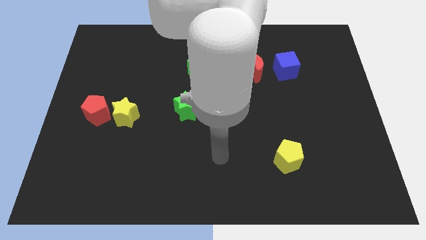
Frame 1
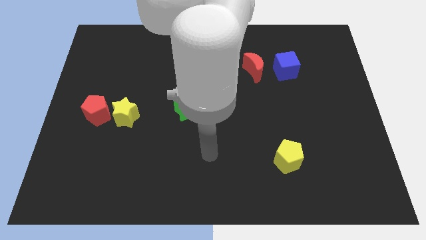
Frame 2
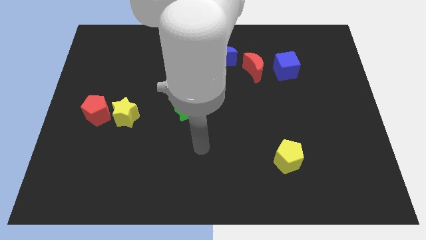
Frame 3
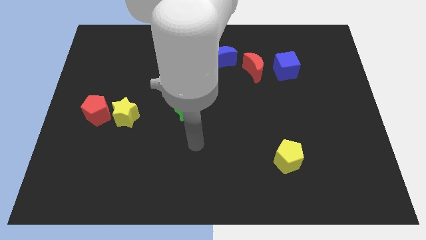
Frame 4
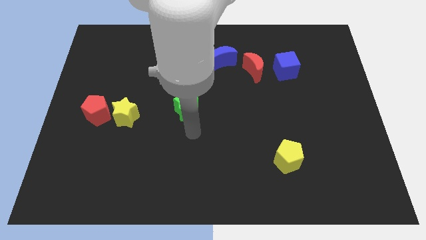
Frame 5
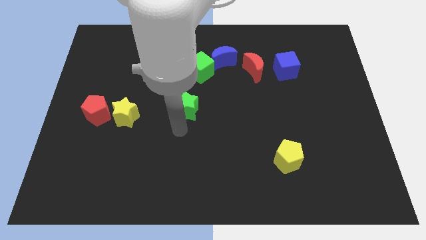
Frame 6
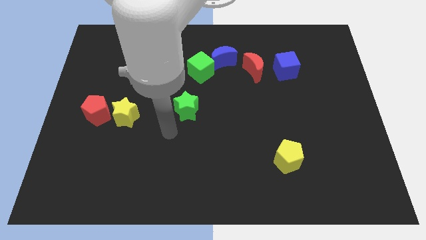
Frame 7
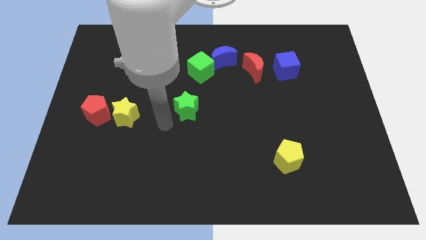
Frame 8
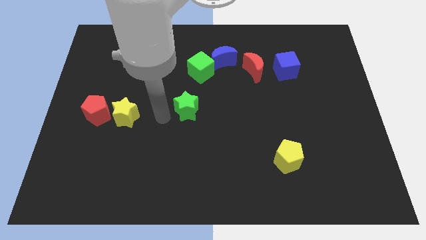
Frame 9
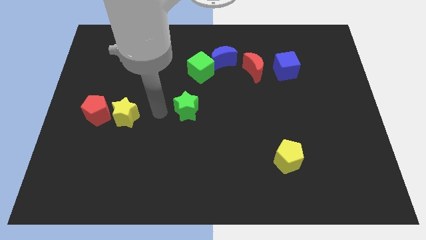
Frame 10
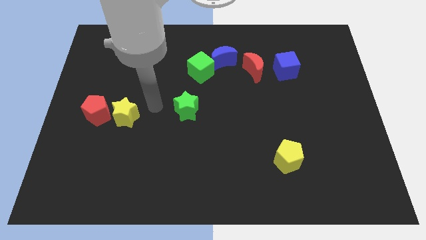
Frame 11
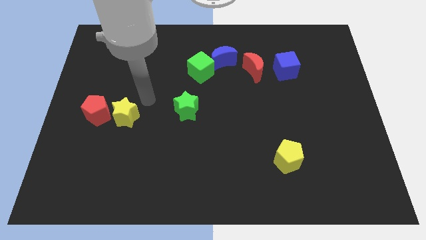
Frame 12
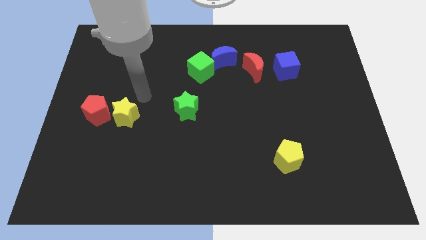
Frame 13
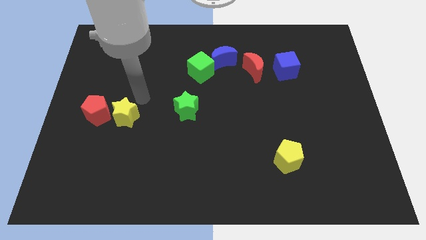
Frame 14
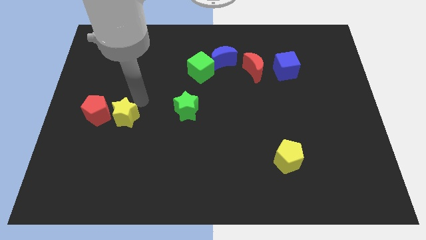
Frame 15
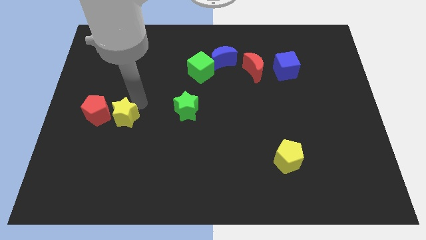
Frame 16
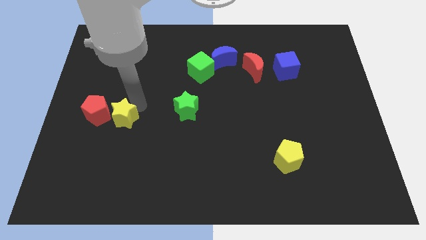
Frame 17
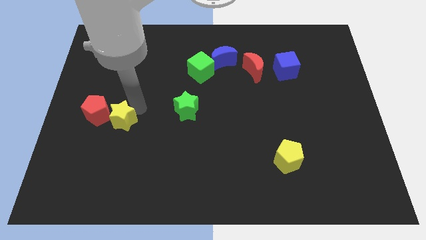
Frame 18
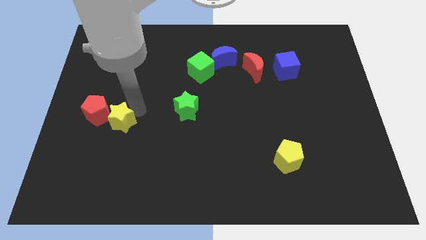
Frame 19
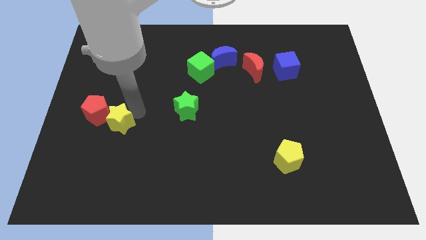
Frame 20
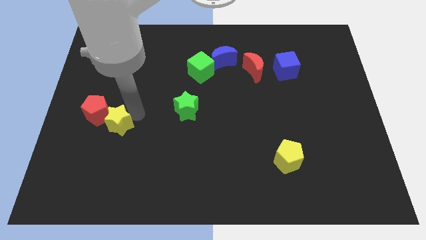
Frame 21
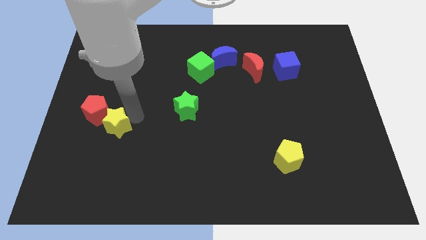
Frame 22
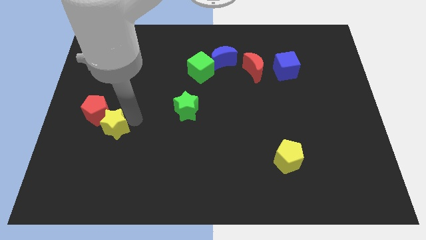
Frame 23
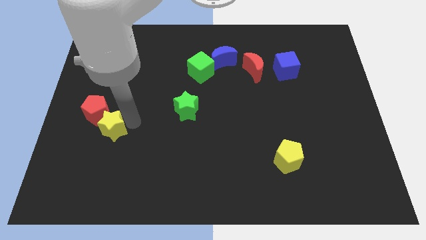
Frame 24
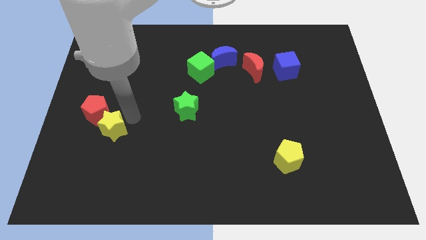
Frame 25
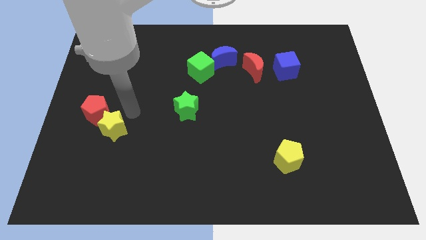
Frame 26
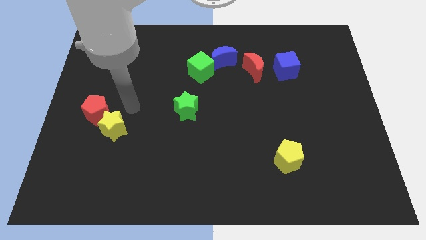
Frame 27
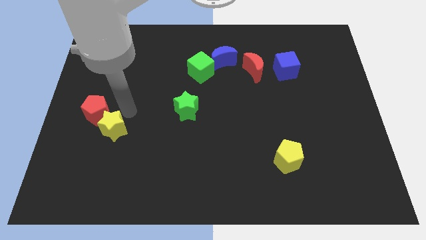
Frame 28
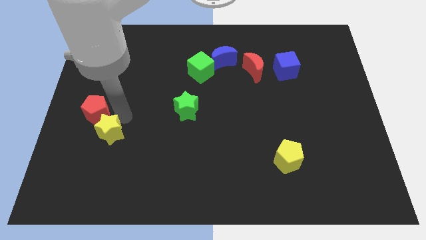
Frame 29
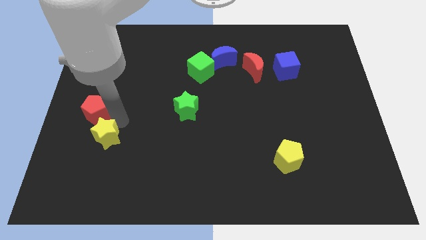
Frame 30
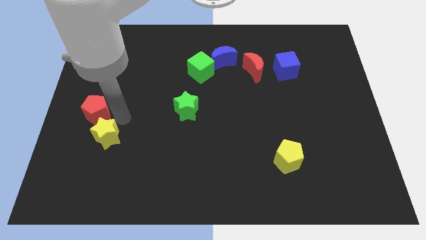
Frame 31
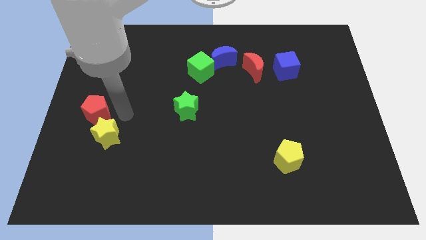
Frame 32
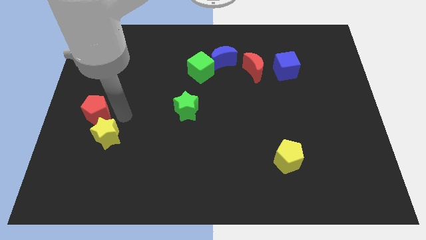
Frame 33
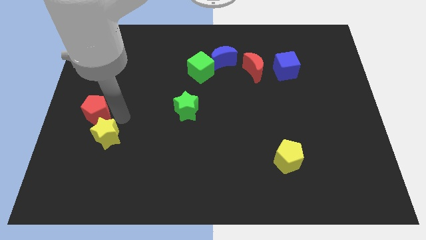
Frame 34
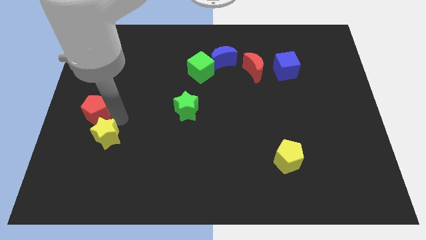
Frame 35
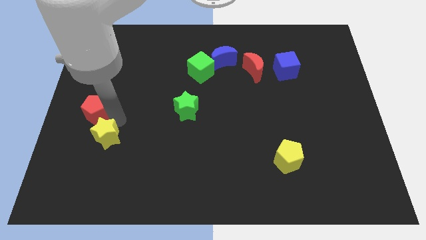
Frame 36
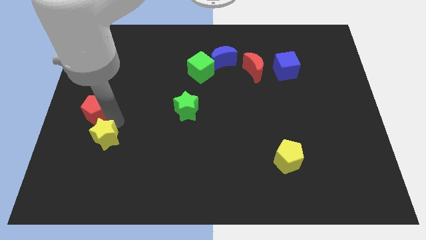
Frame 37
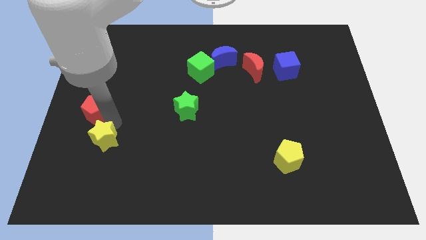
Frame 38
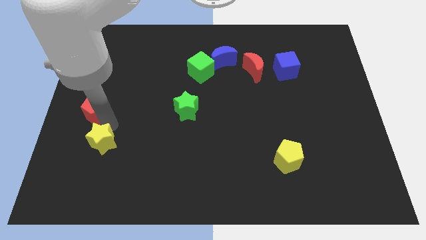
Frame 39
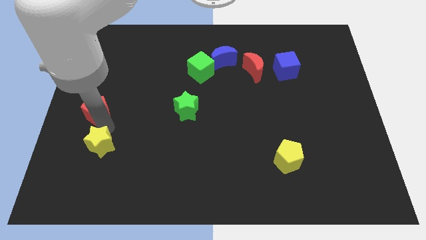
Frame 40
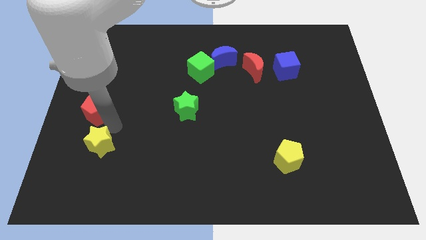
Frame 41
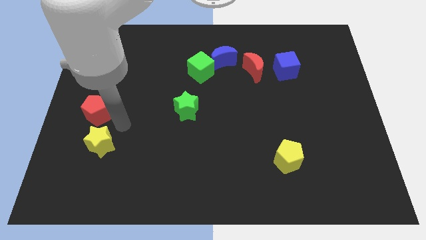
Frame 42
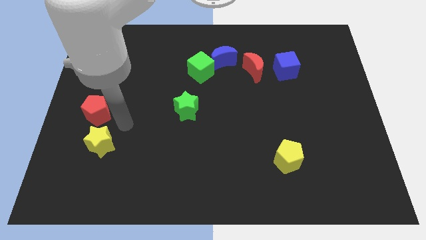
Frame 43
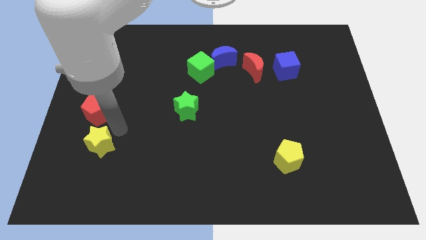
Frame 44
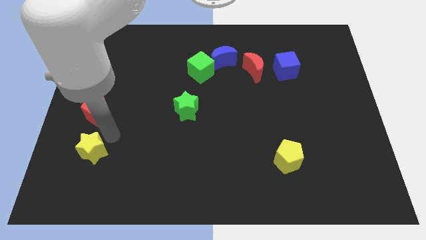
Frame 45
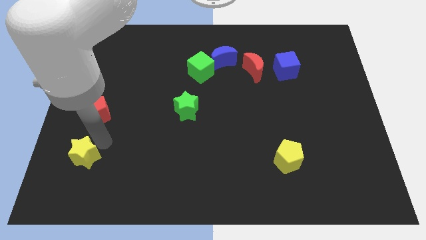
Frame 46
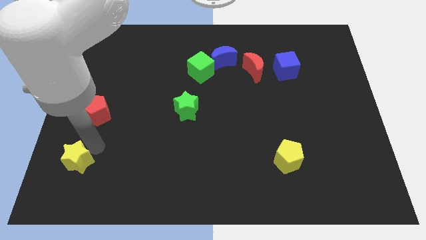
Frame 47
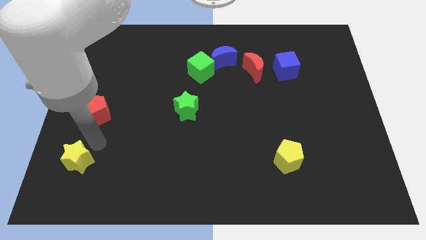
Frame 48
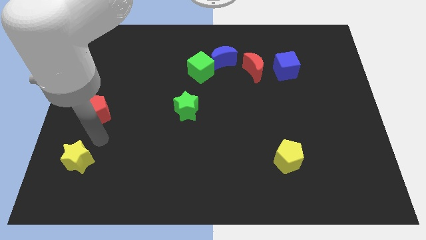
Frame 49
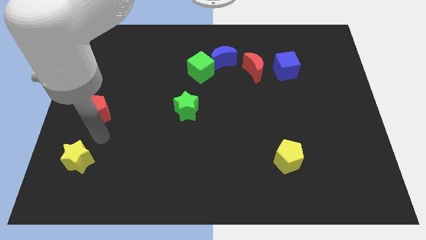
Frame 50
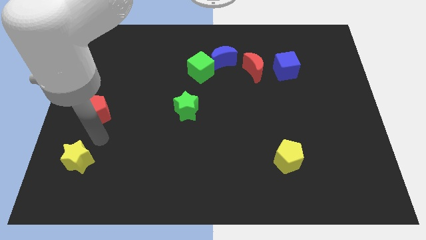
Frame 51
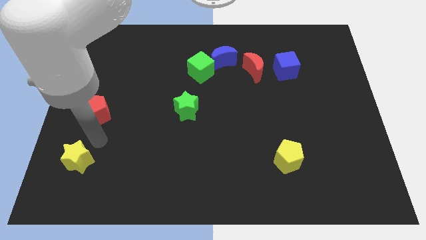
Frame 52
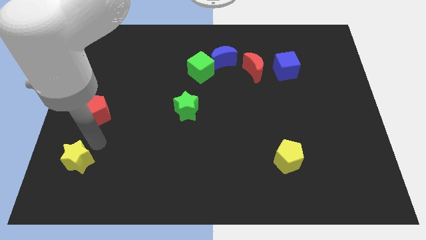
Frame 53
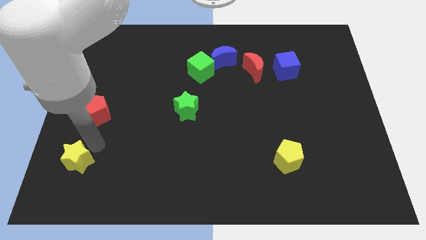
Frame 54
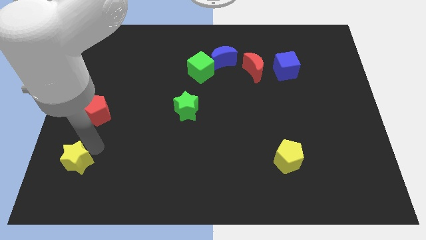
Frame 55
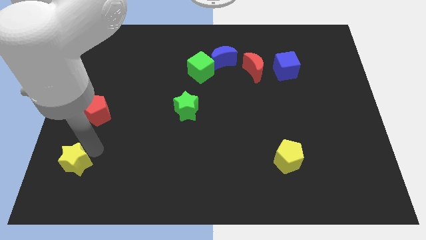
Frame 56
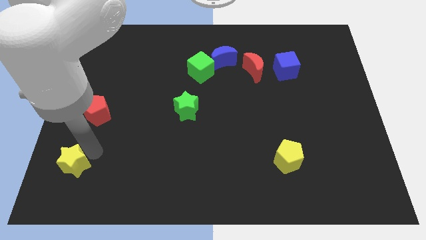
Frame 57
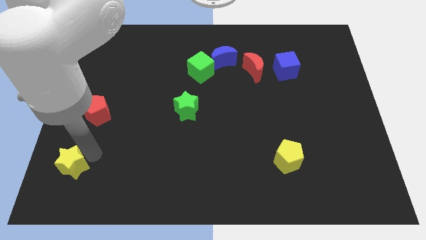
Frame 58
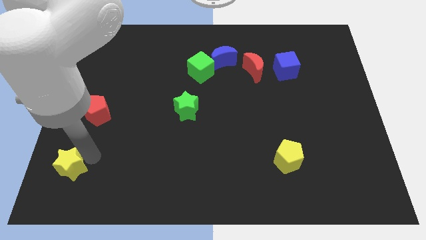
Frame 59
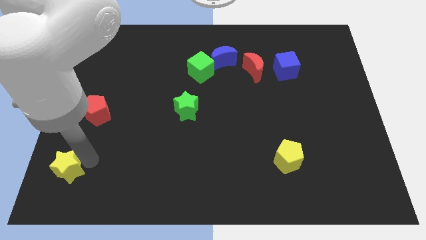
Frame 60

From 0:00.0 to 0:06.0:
move the yellow star to the bottom left of the board

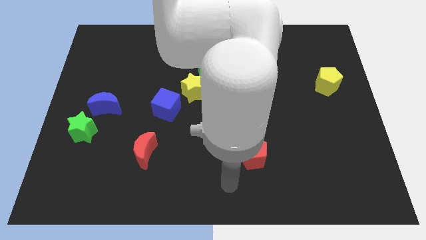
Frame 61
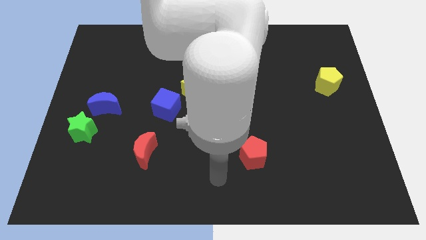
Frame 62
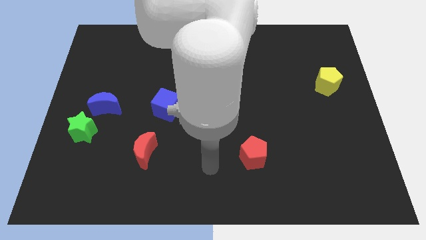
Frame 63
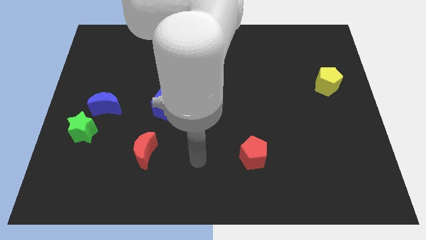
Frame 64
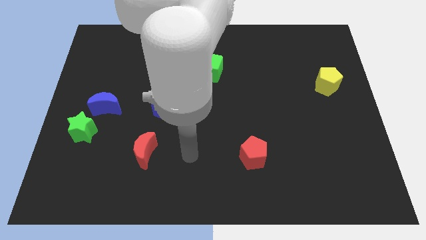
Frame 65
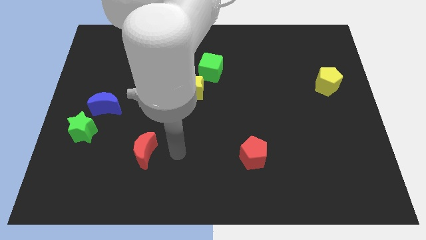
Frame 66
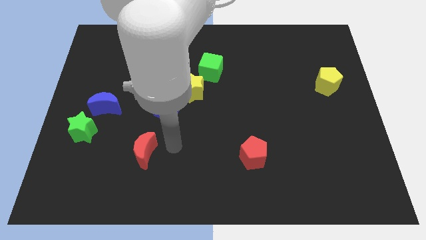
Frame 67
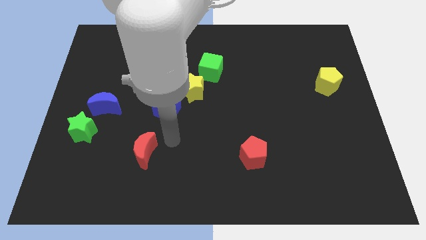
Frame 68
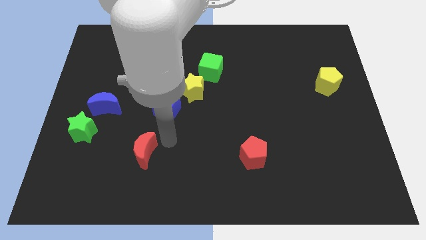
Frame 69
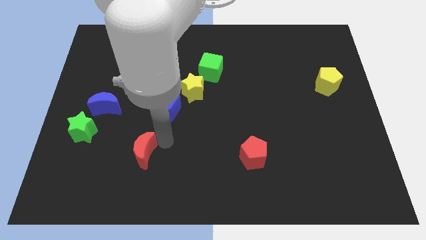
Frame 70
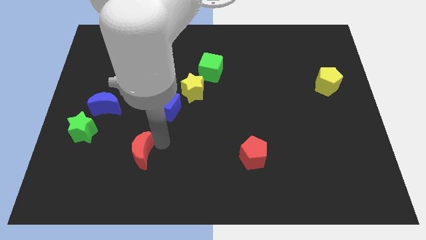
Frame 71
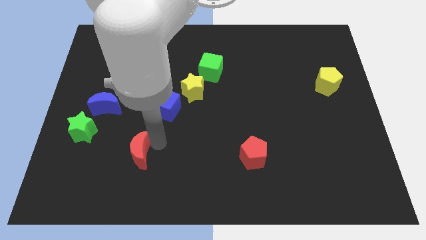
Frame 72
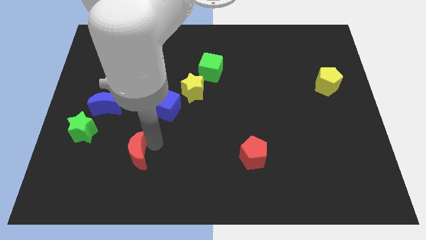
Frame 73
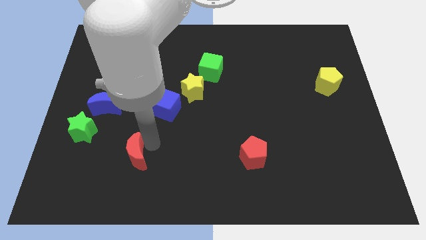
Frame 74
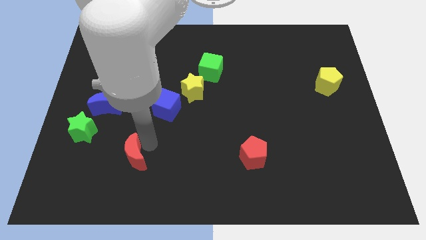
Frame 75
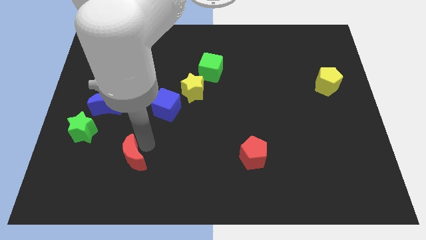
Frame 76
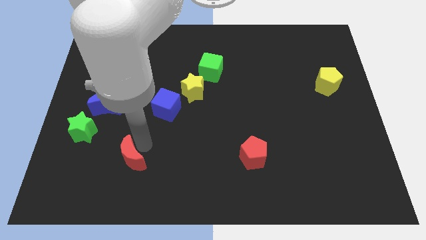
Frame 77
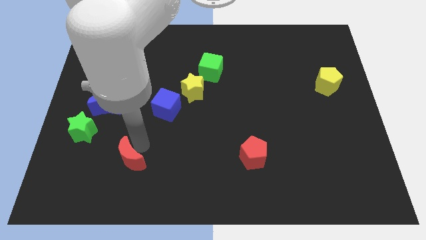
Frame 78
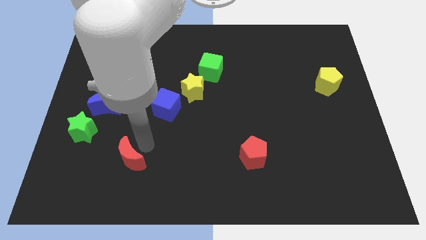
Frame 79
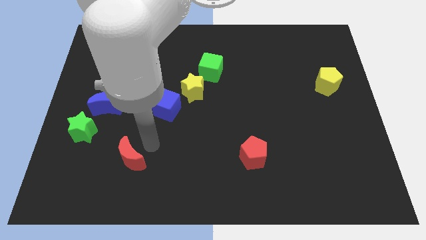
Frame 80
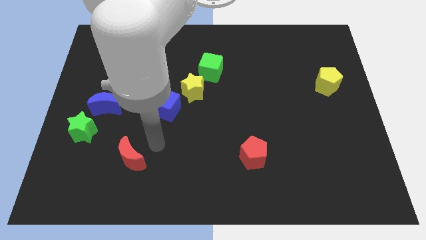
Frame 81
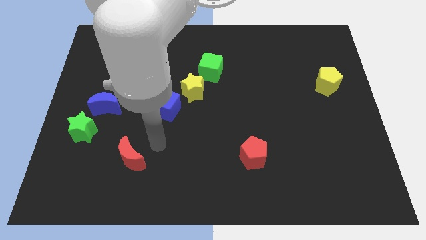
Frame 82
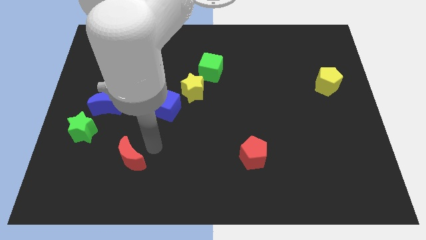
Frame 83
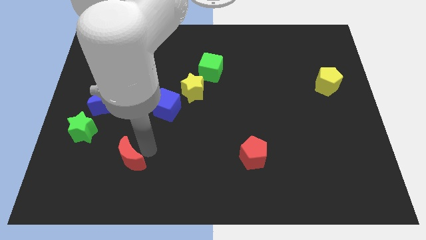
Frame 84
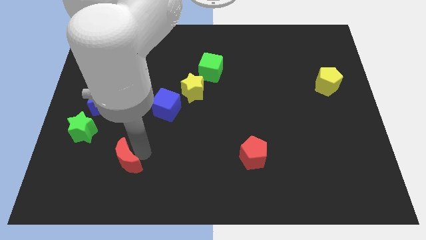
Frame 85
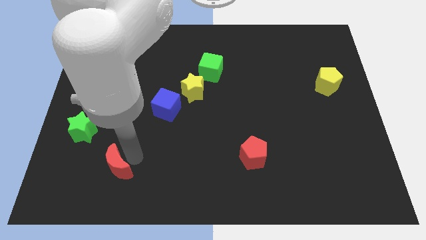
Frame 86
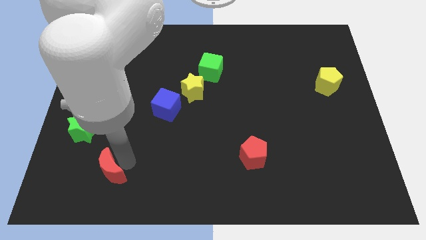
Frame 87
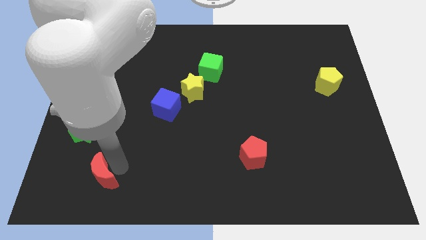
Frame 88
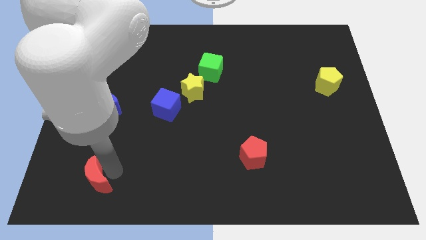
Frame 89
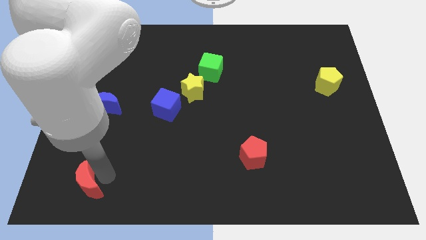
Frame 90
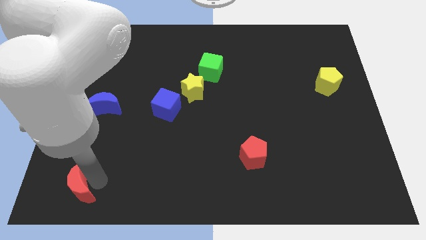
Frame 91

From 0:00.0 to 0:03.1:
slide the red moon to the bottom left of the board
